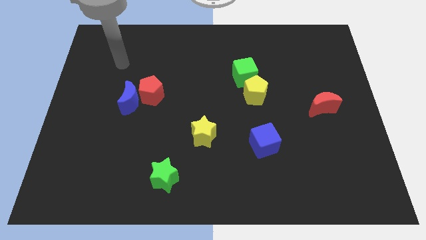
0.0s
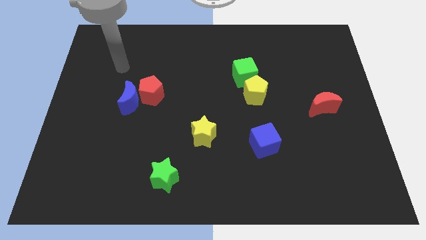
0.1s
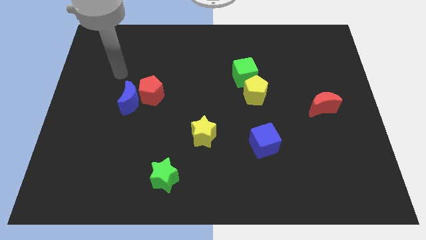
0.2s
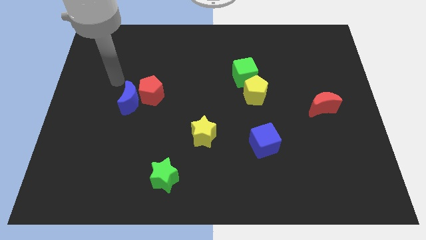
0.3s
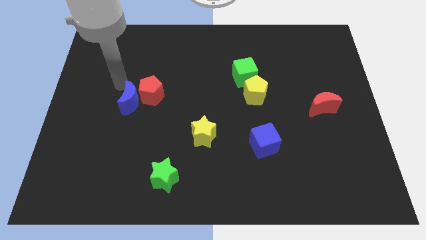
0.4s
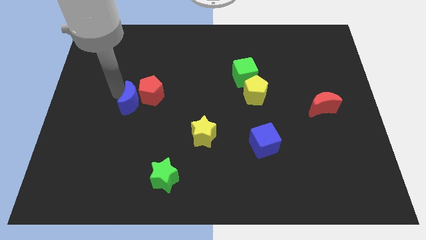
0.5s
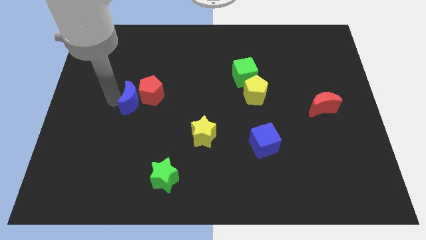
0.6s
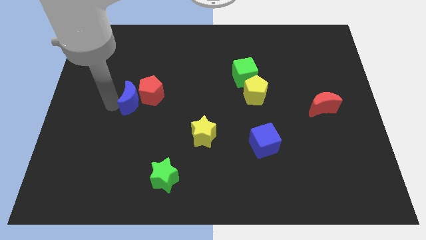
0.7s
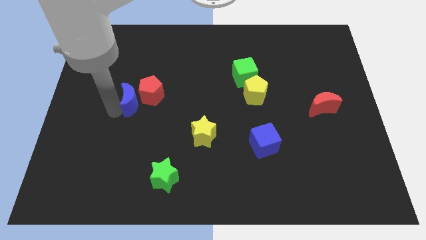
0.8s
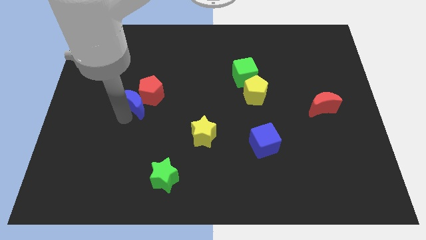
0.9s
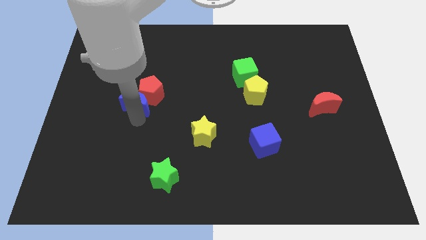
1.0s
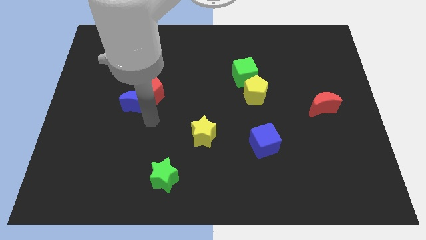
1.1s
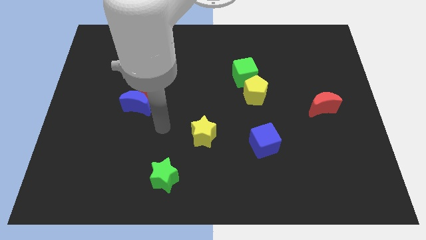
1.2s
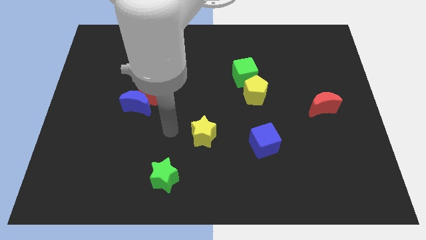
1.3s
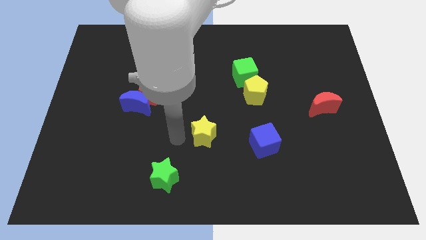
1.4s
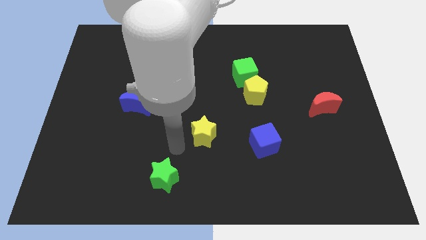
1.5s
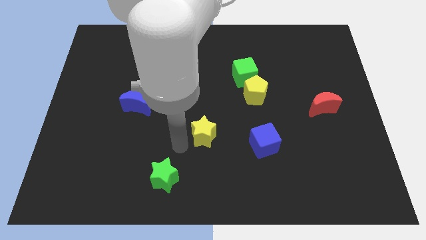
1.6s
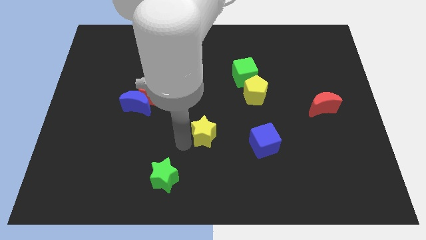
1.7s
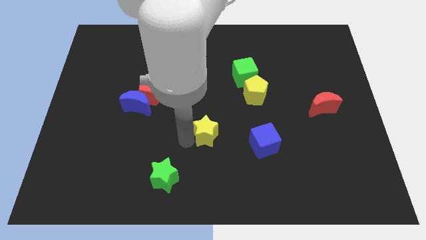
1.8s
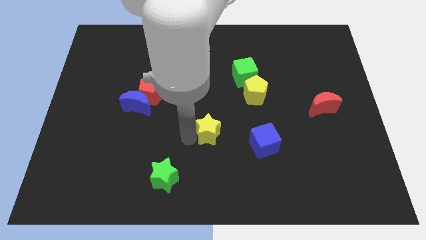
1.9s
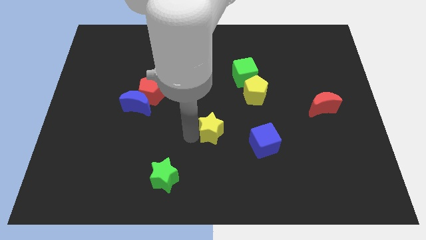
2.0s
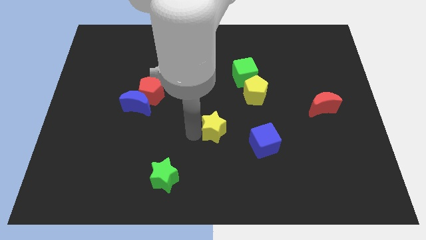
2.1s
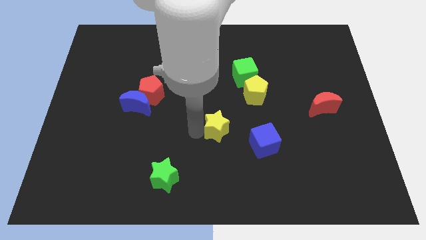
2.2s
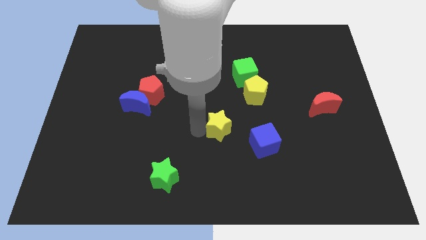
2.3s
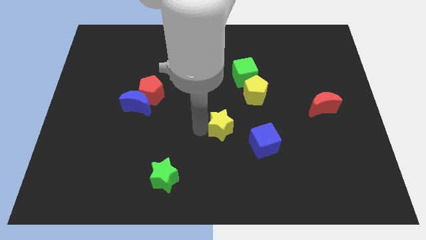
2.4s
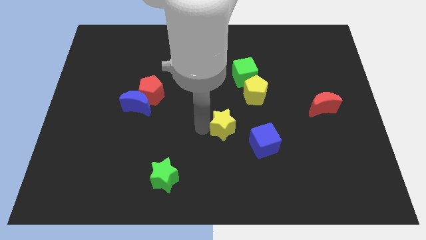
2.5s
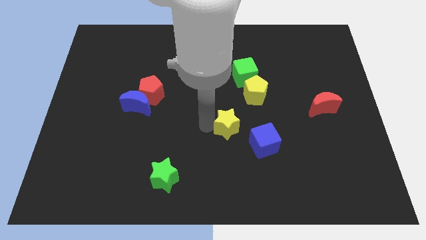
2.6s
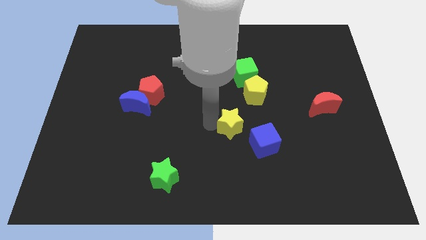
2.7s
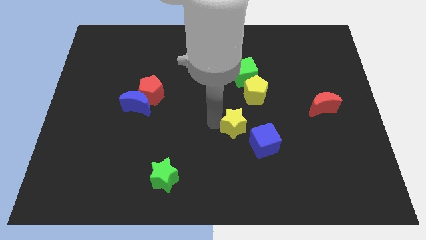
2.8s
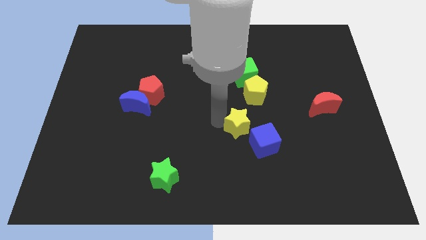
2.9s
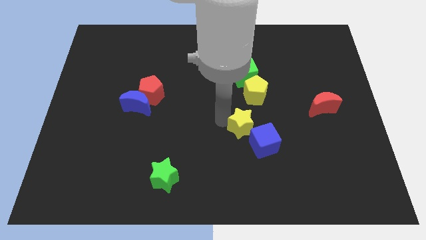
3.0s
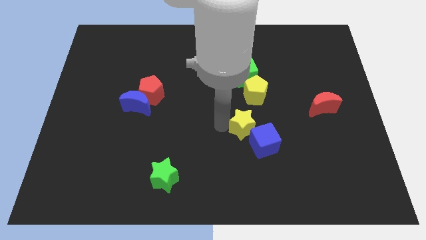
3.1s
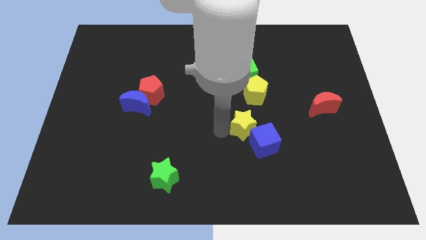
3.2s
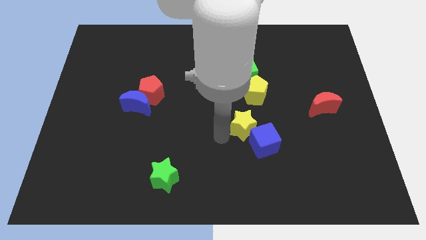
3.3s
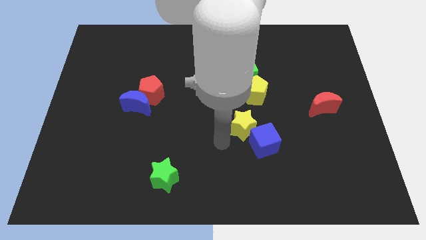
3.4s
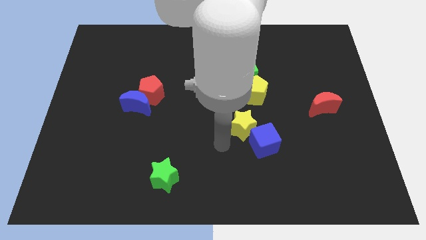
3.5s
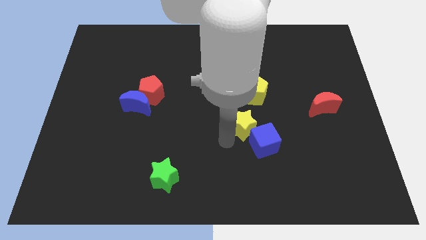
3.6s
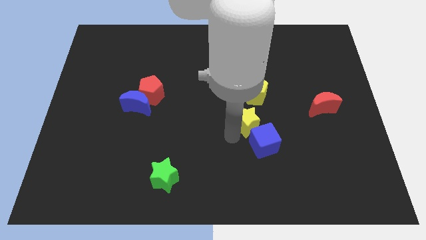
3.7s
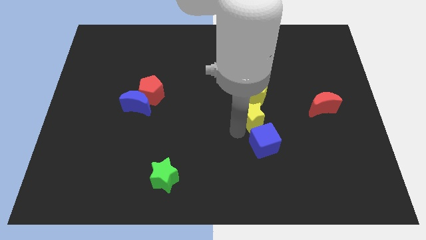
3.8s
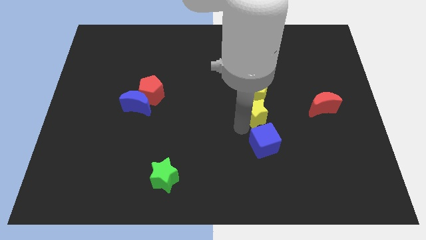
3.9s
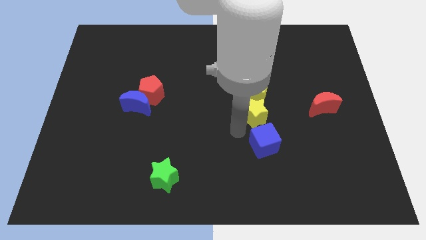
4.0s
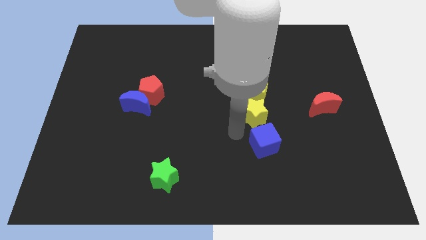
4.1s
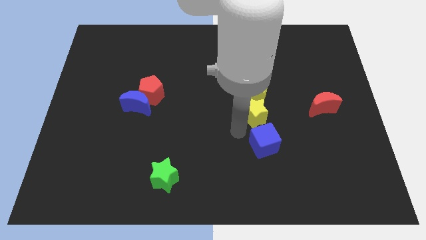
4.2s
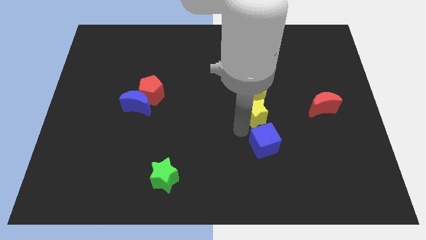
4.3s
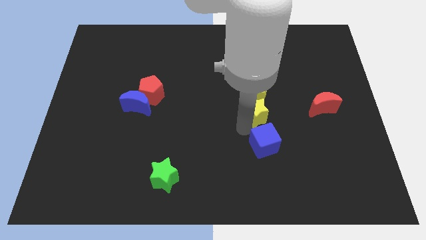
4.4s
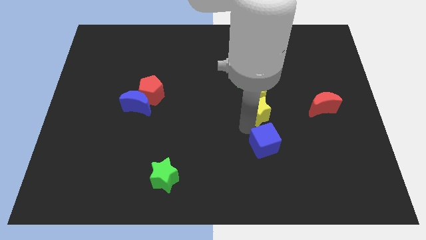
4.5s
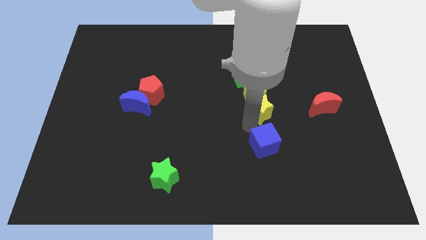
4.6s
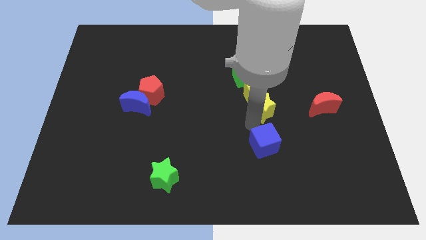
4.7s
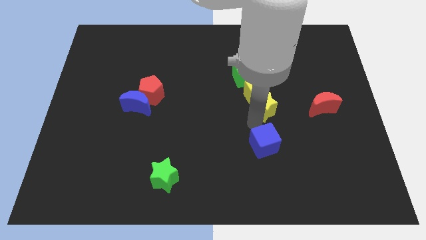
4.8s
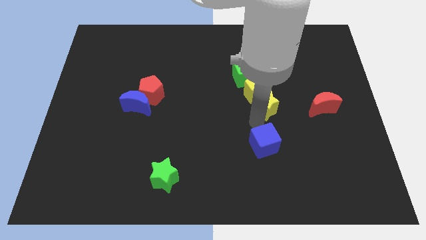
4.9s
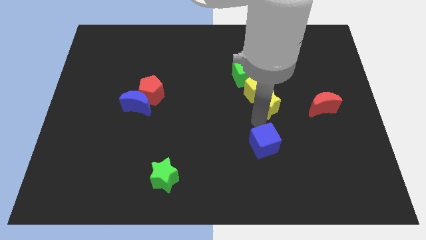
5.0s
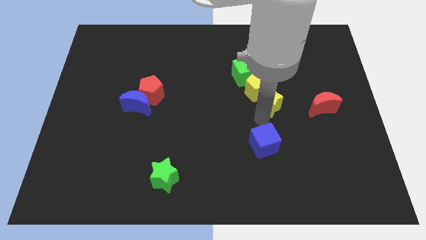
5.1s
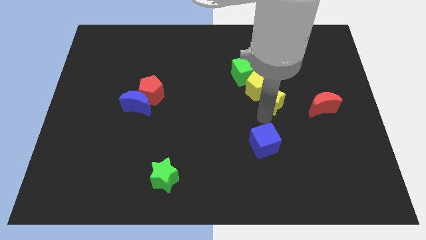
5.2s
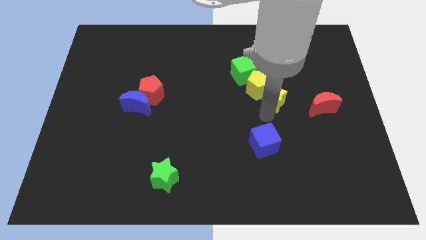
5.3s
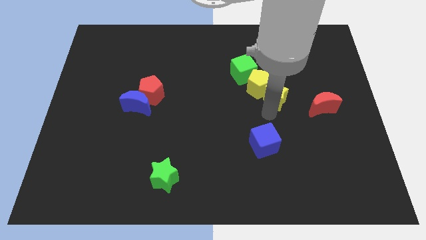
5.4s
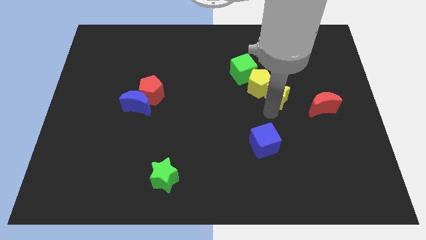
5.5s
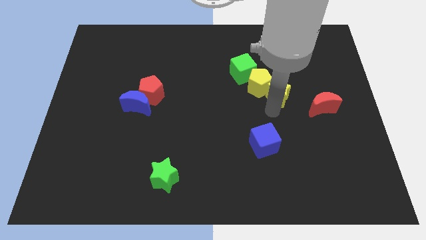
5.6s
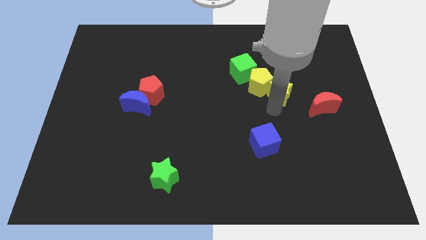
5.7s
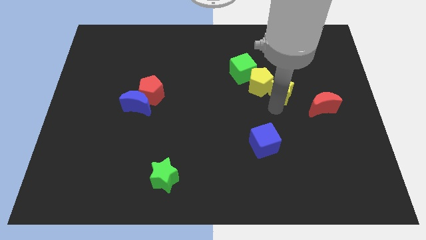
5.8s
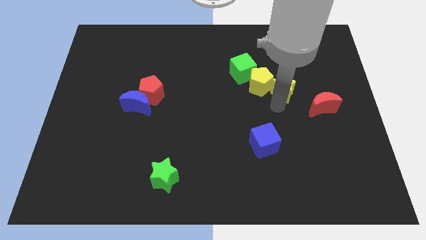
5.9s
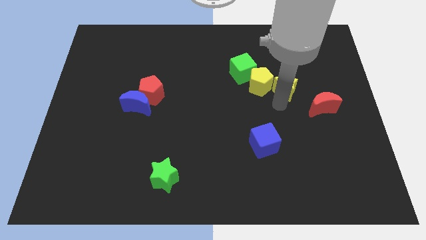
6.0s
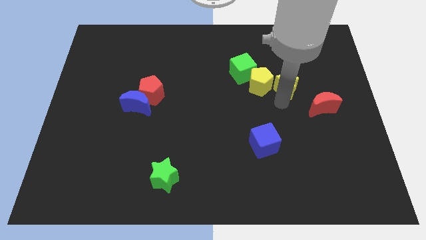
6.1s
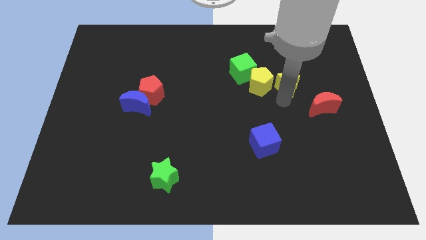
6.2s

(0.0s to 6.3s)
move the yellow star to the right side of the green cube

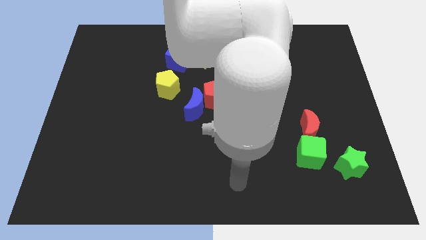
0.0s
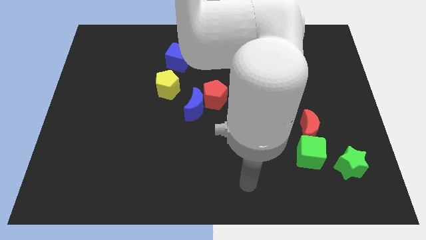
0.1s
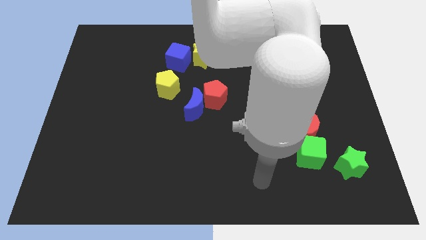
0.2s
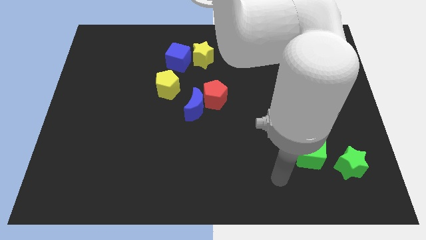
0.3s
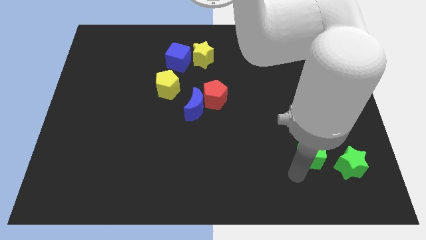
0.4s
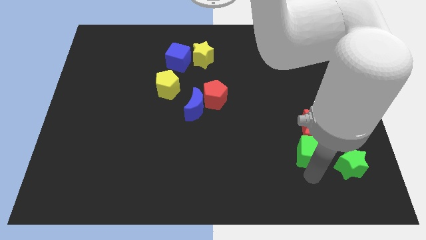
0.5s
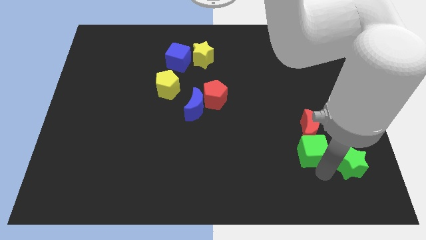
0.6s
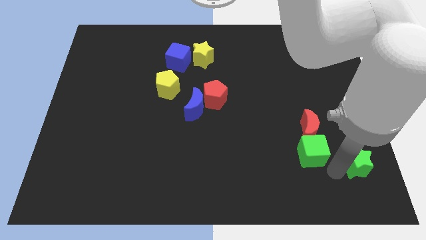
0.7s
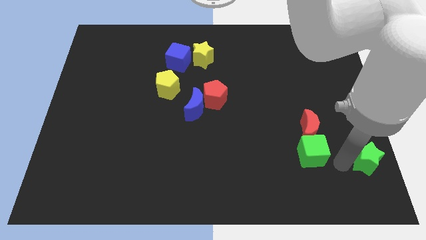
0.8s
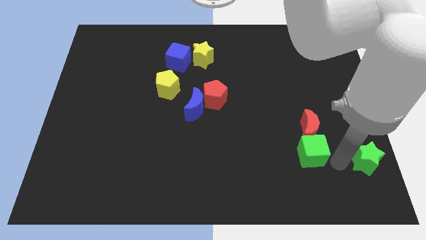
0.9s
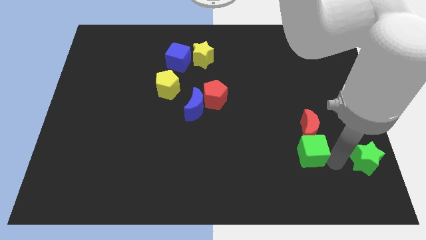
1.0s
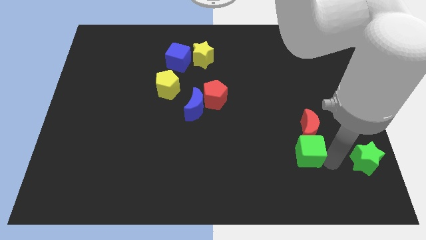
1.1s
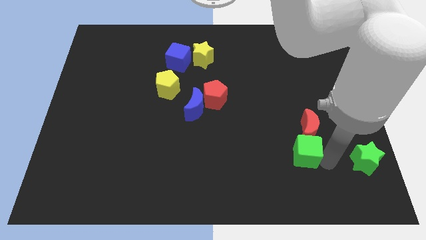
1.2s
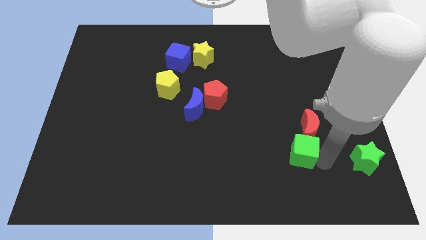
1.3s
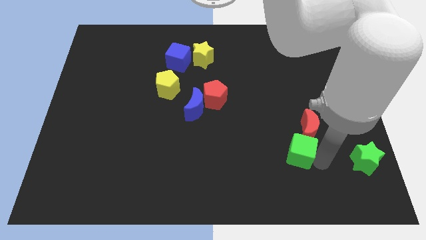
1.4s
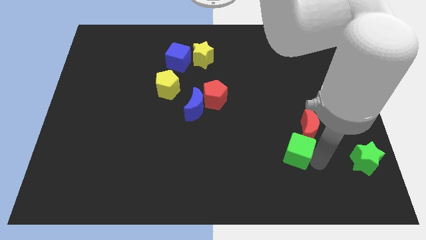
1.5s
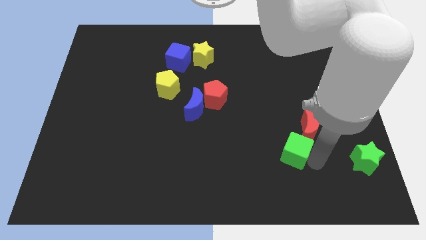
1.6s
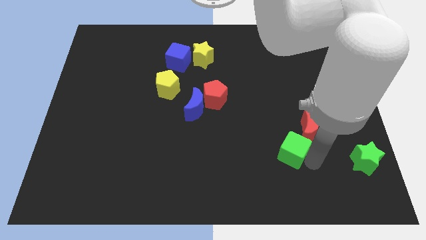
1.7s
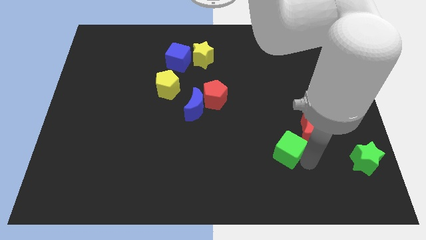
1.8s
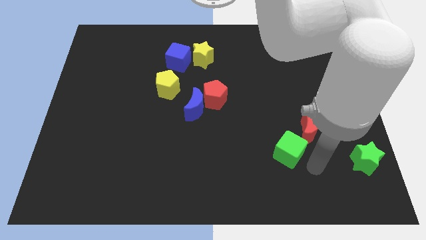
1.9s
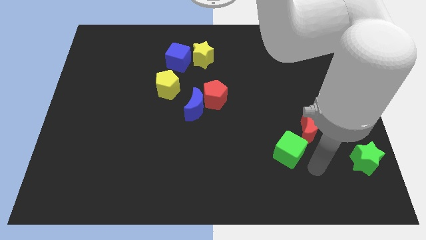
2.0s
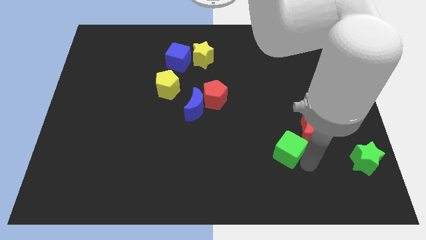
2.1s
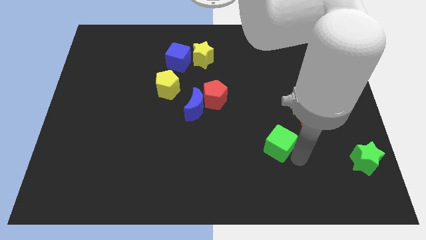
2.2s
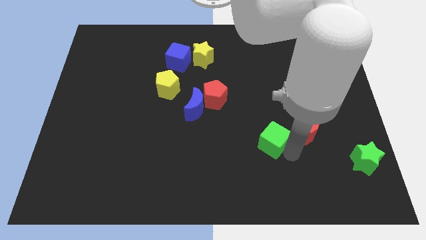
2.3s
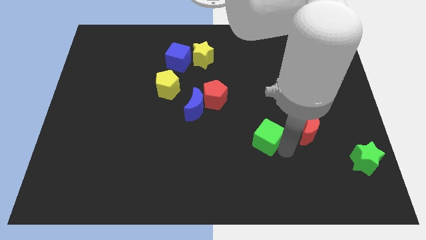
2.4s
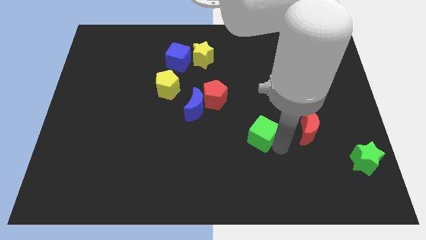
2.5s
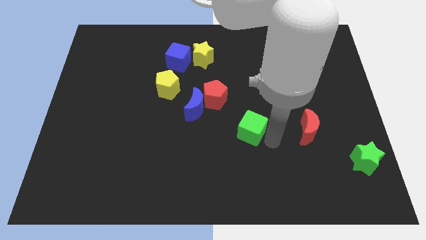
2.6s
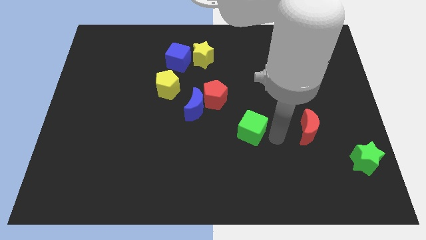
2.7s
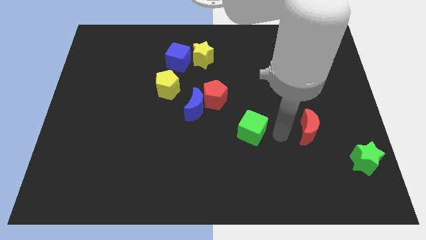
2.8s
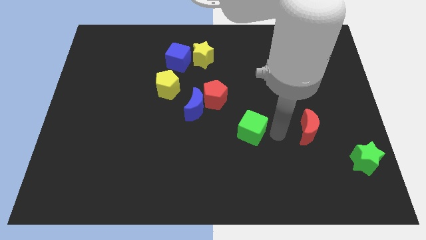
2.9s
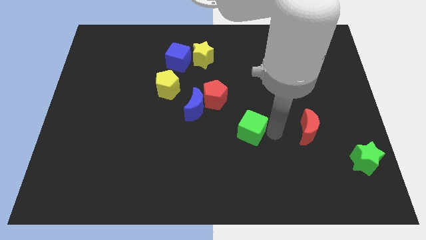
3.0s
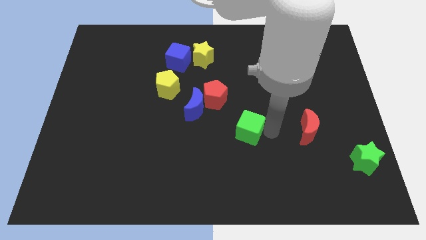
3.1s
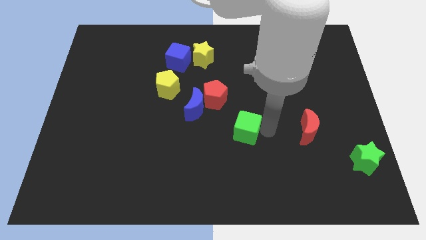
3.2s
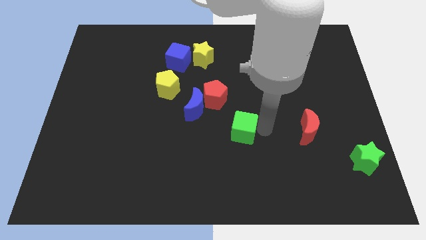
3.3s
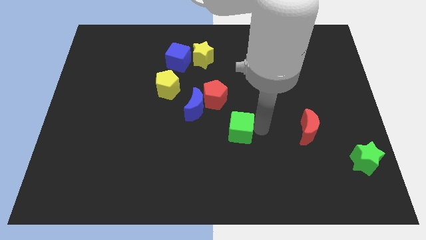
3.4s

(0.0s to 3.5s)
slide the green cube to the bottom right of the blue moon
